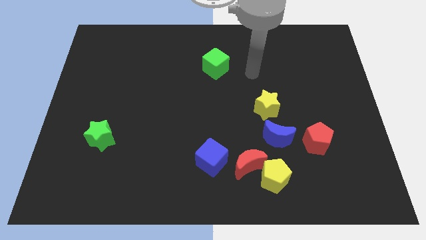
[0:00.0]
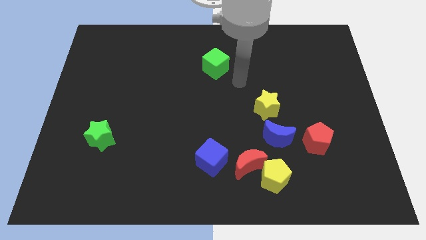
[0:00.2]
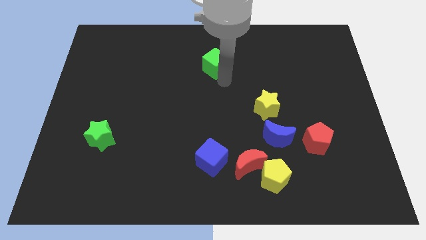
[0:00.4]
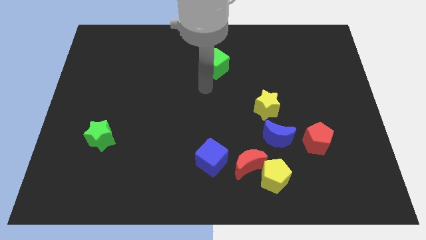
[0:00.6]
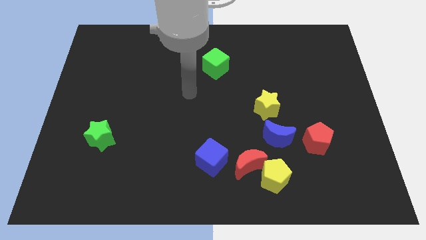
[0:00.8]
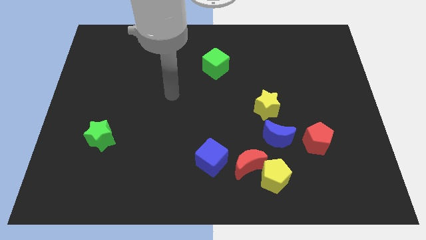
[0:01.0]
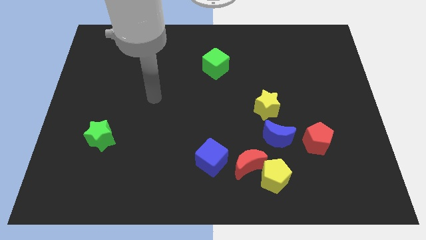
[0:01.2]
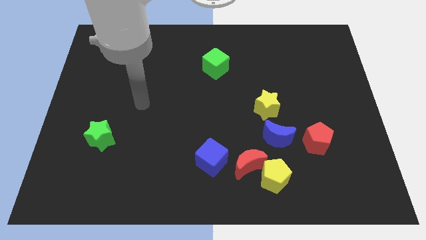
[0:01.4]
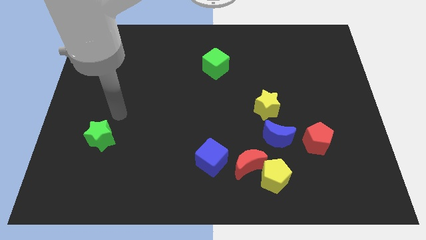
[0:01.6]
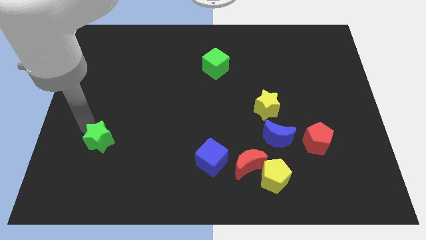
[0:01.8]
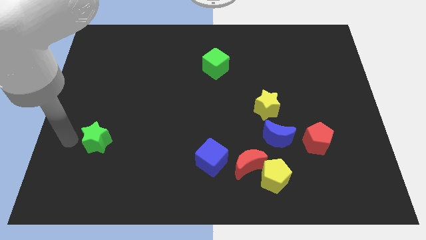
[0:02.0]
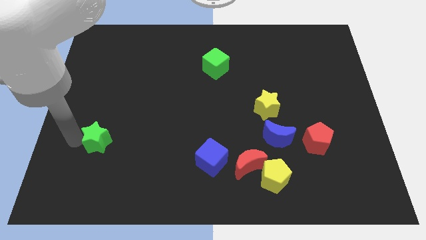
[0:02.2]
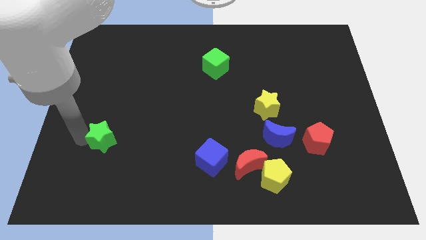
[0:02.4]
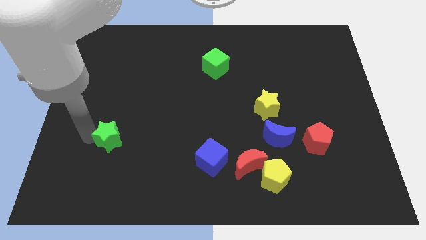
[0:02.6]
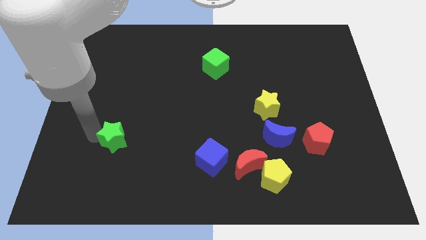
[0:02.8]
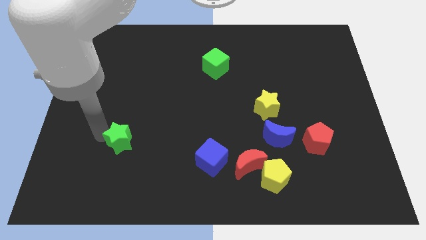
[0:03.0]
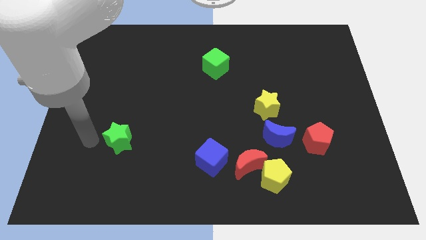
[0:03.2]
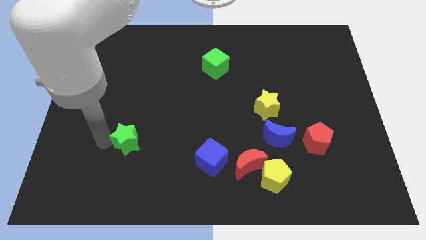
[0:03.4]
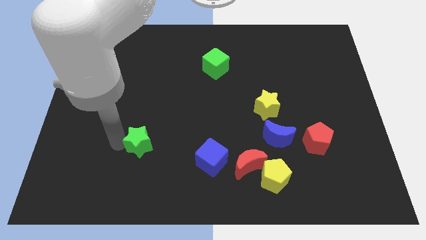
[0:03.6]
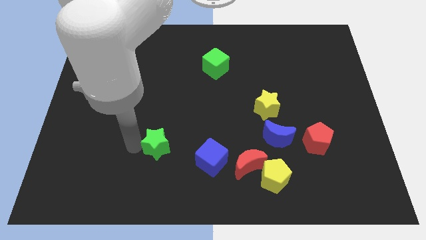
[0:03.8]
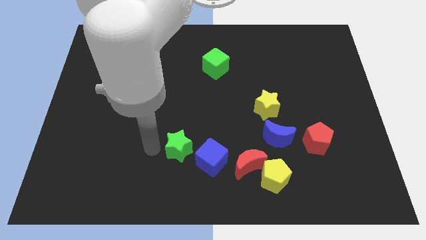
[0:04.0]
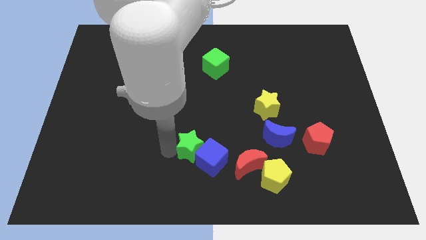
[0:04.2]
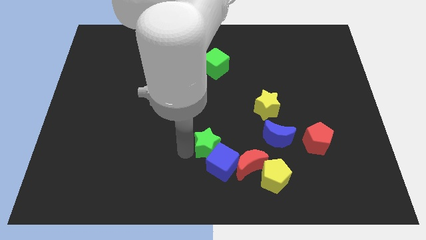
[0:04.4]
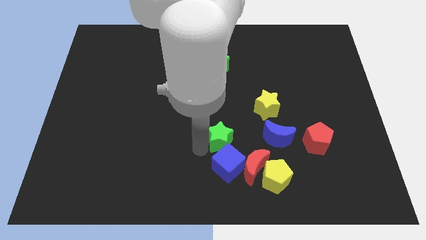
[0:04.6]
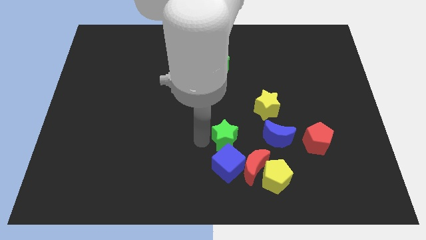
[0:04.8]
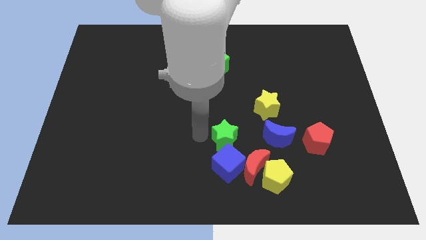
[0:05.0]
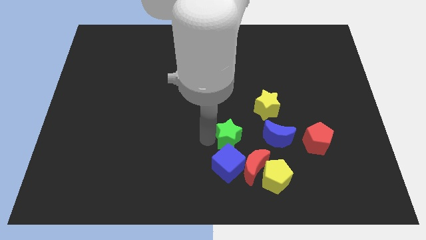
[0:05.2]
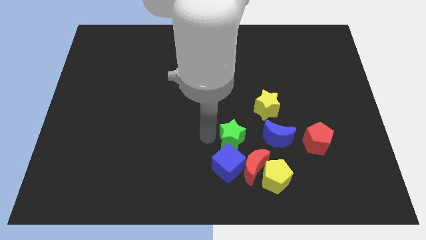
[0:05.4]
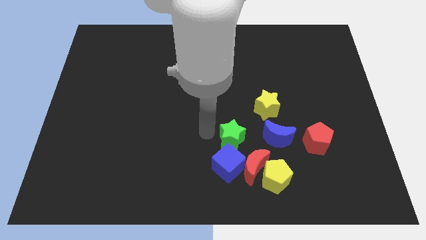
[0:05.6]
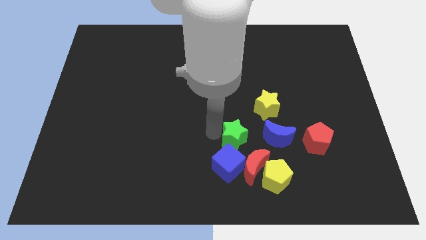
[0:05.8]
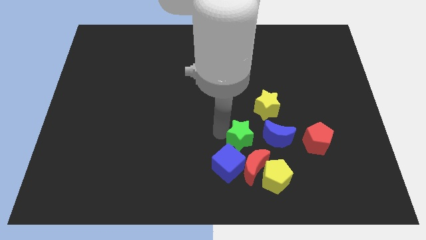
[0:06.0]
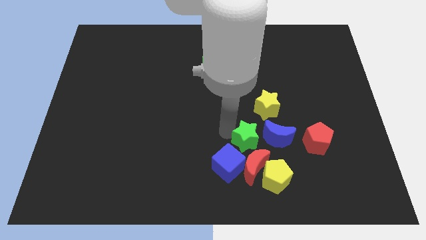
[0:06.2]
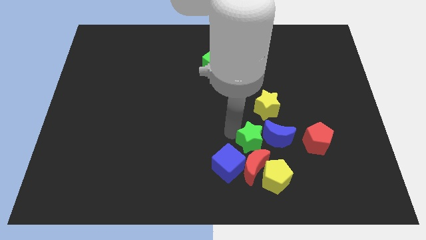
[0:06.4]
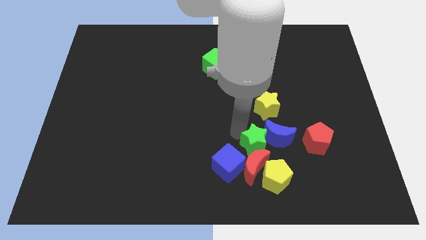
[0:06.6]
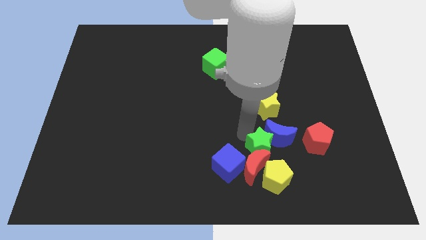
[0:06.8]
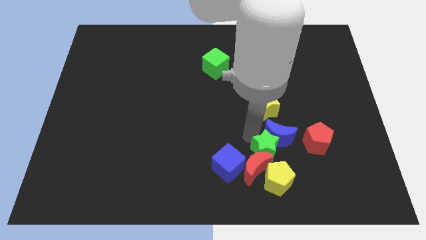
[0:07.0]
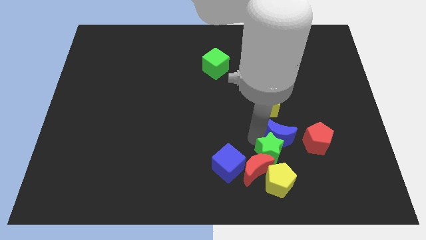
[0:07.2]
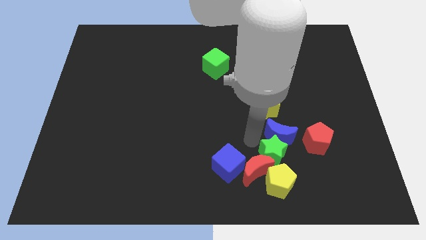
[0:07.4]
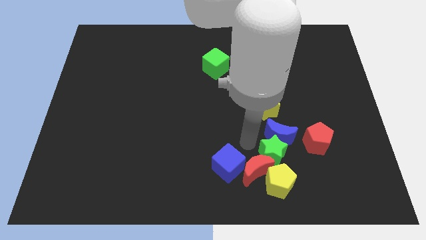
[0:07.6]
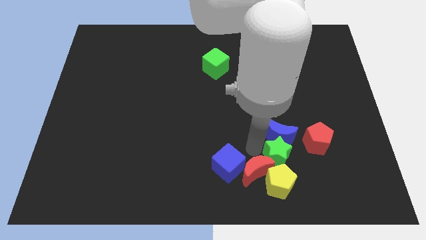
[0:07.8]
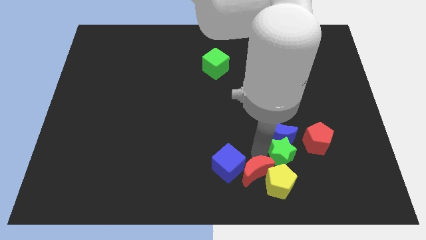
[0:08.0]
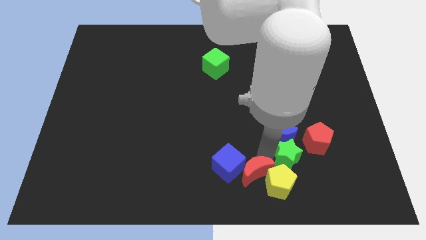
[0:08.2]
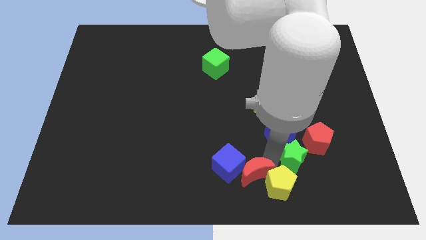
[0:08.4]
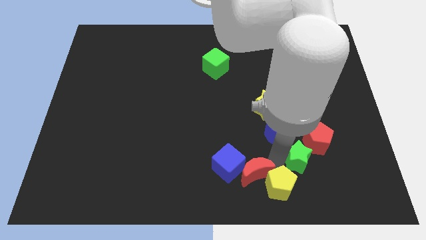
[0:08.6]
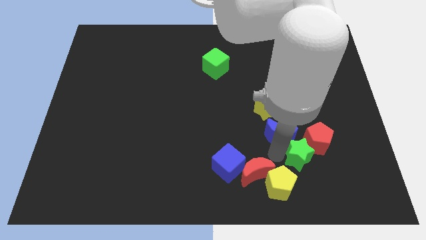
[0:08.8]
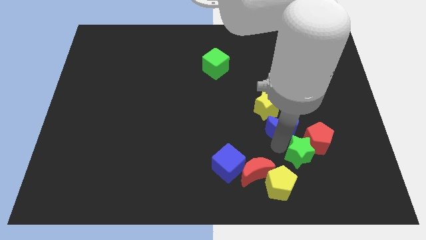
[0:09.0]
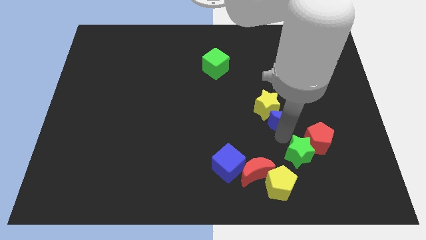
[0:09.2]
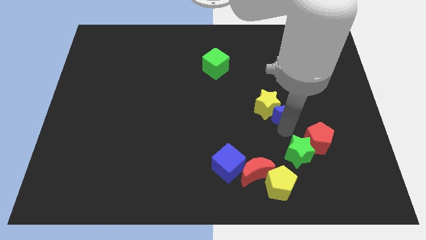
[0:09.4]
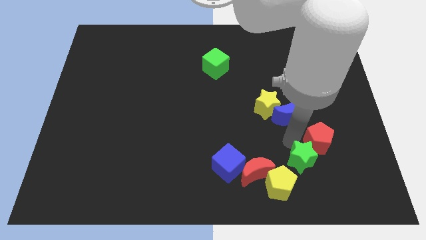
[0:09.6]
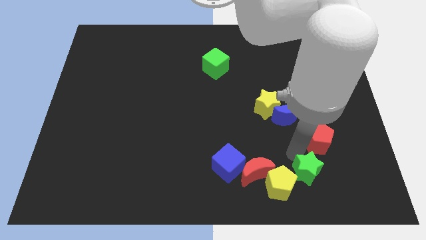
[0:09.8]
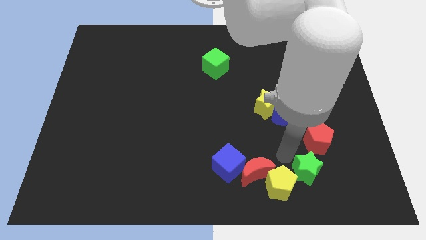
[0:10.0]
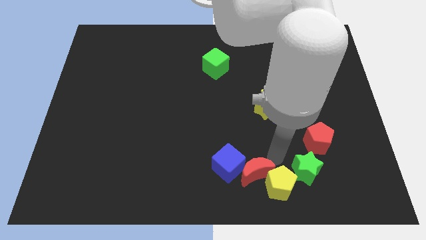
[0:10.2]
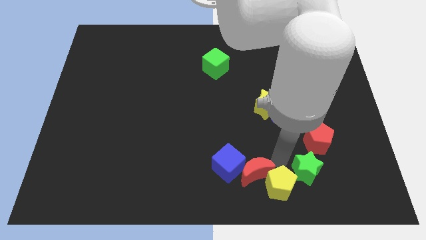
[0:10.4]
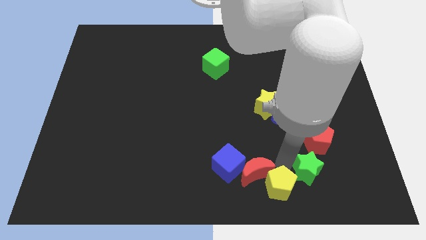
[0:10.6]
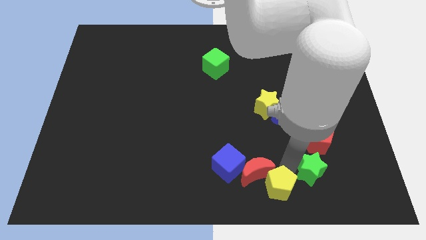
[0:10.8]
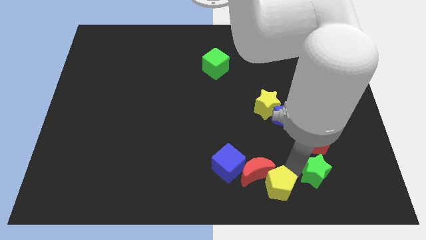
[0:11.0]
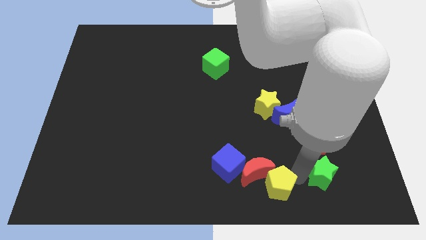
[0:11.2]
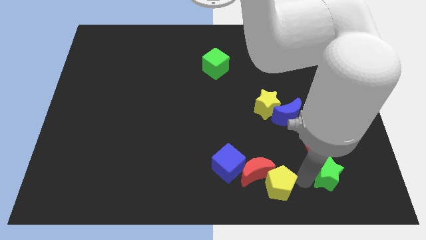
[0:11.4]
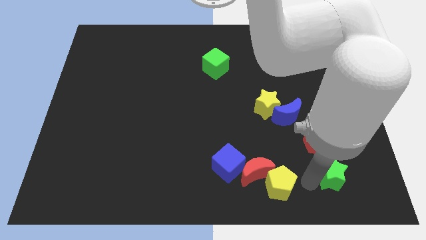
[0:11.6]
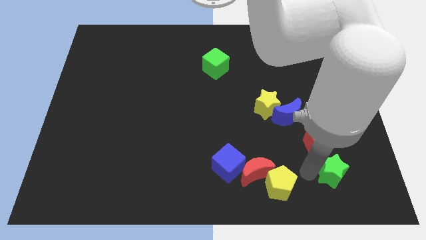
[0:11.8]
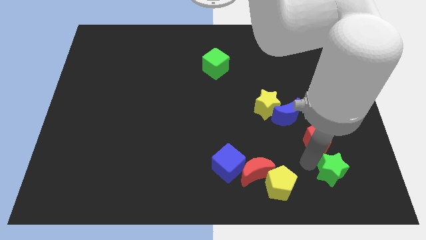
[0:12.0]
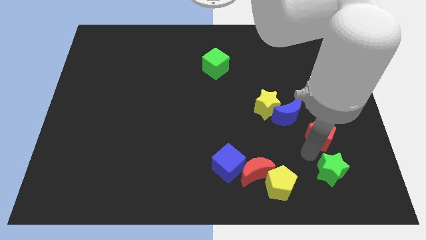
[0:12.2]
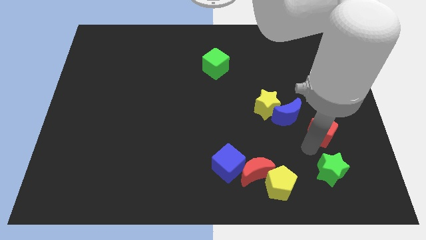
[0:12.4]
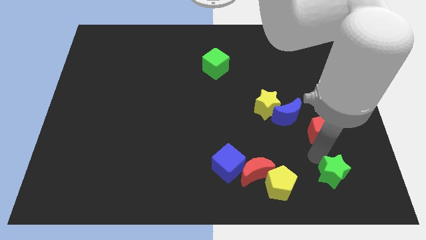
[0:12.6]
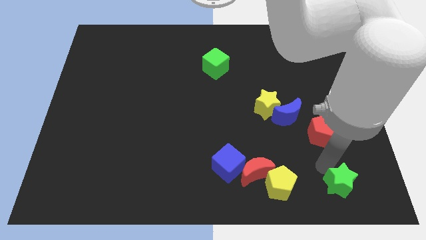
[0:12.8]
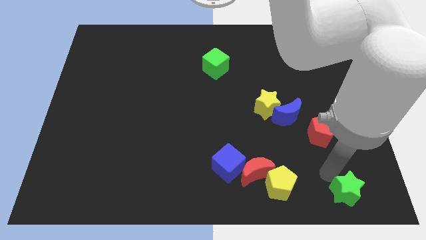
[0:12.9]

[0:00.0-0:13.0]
put the green star to the bottom right corner
